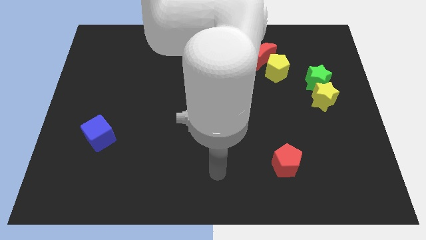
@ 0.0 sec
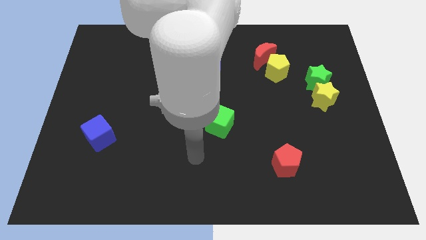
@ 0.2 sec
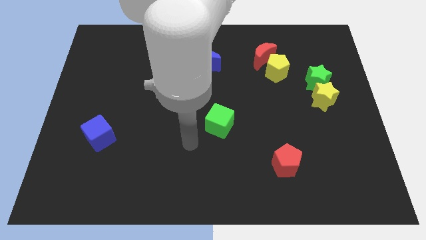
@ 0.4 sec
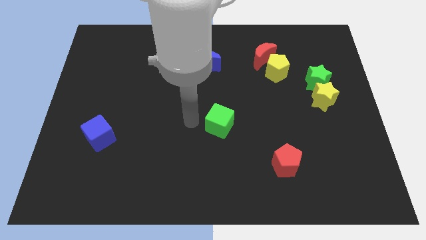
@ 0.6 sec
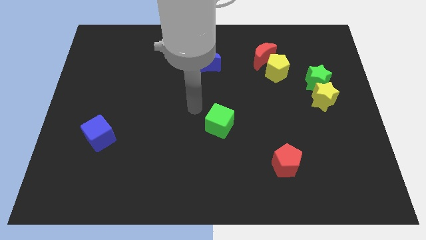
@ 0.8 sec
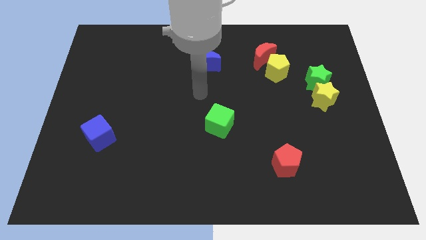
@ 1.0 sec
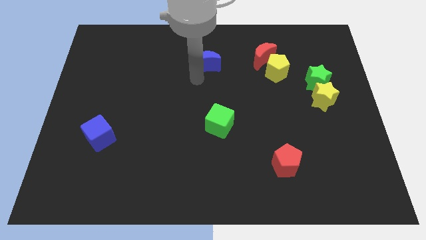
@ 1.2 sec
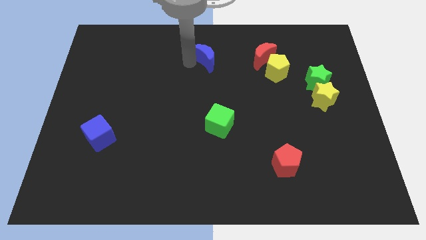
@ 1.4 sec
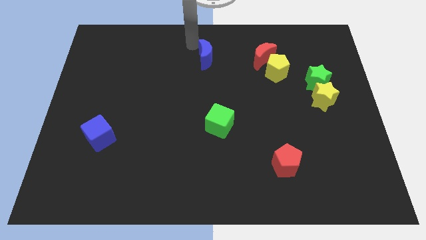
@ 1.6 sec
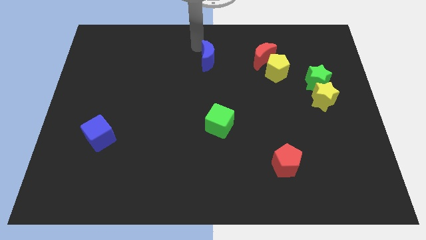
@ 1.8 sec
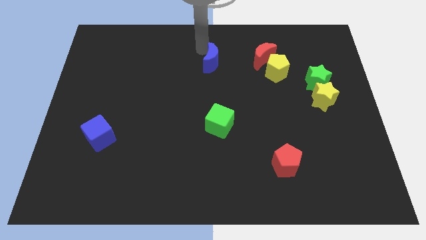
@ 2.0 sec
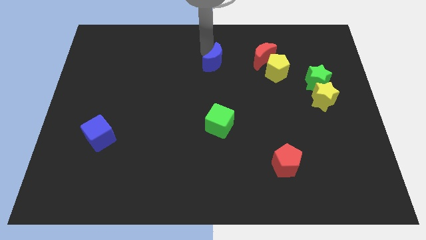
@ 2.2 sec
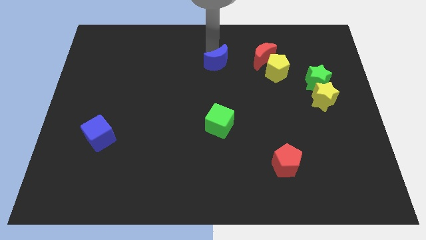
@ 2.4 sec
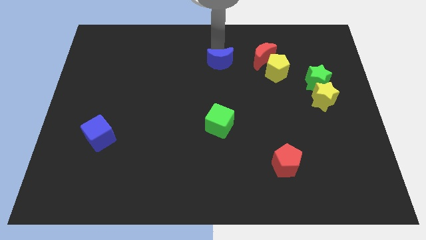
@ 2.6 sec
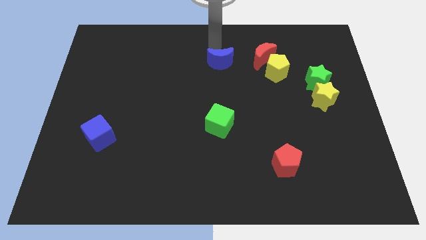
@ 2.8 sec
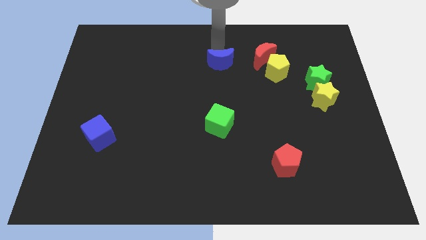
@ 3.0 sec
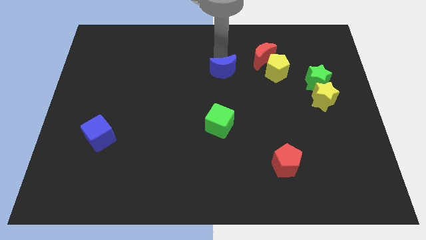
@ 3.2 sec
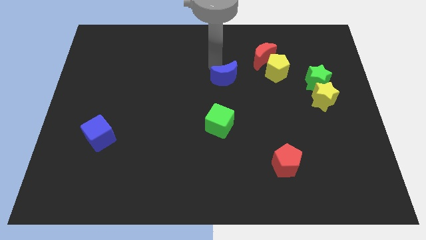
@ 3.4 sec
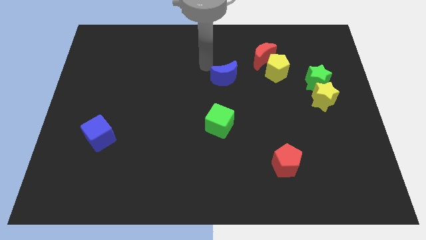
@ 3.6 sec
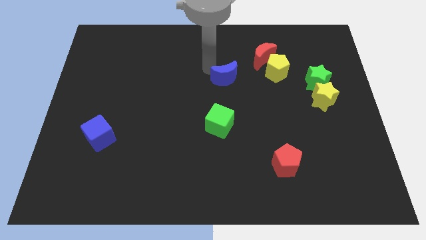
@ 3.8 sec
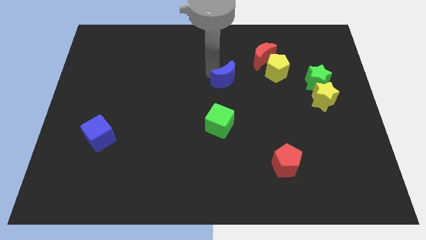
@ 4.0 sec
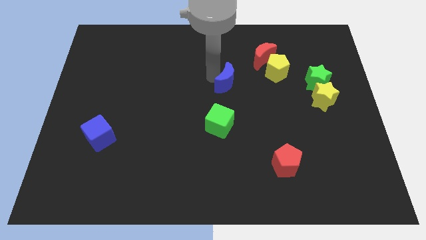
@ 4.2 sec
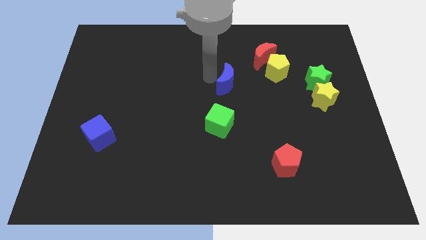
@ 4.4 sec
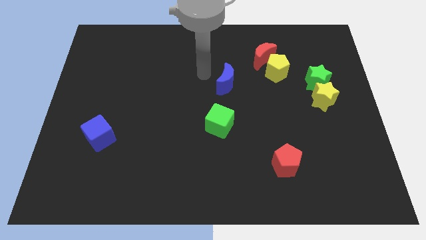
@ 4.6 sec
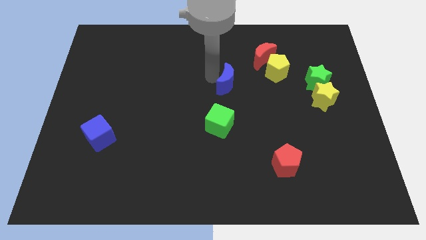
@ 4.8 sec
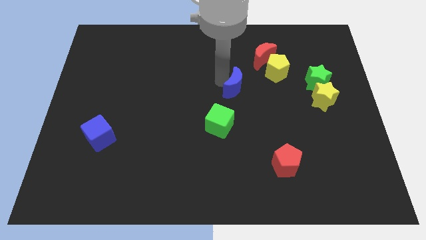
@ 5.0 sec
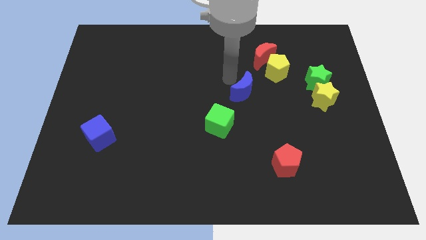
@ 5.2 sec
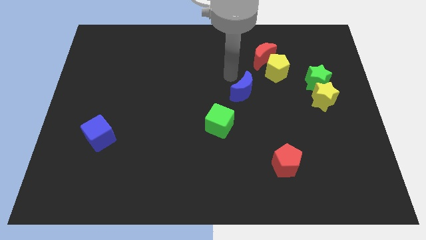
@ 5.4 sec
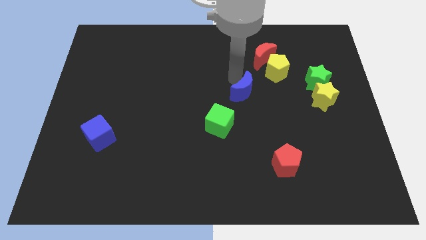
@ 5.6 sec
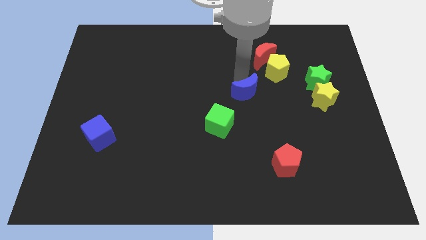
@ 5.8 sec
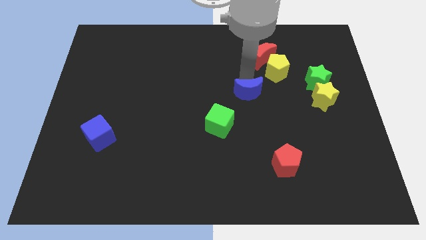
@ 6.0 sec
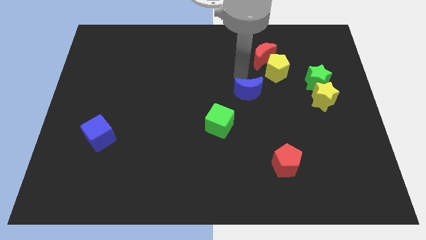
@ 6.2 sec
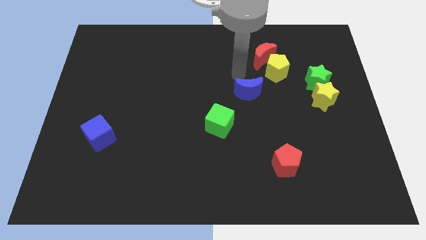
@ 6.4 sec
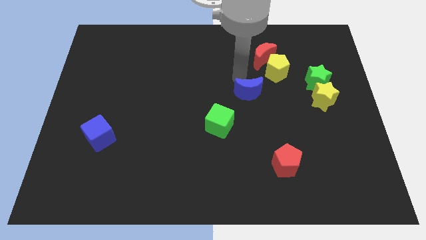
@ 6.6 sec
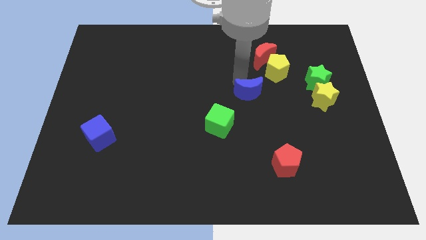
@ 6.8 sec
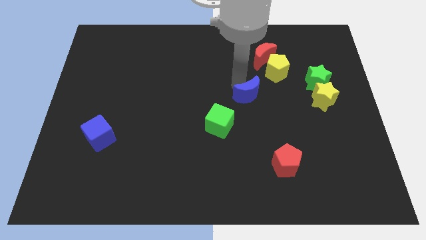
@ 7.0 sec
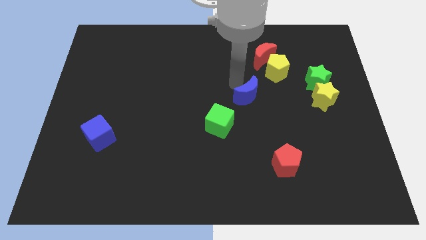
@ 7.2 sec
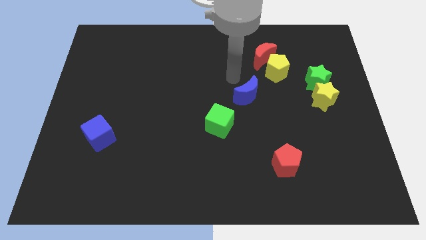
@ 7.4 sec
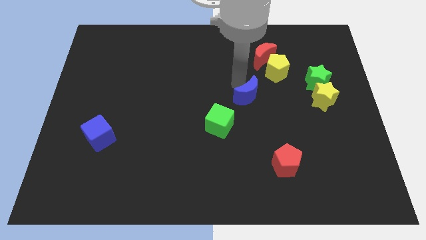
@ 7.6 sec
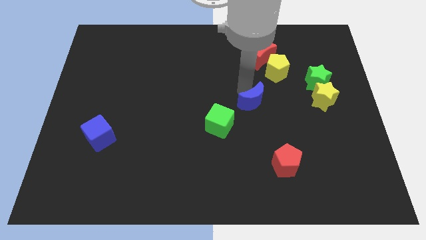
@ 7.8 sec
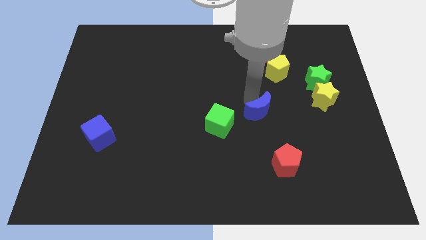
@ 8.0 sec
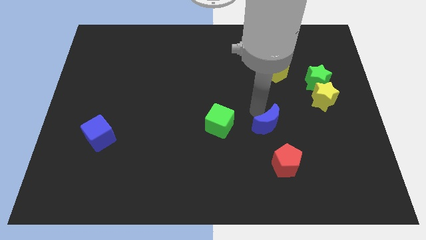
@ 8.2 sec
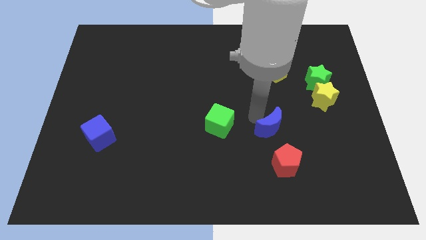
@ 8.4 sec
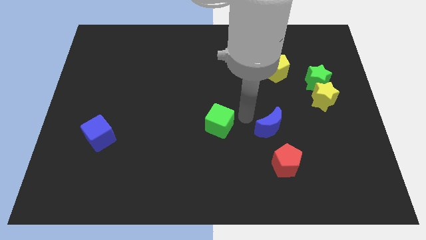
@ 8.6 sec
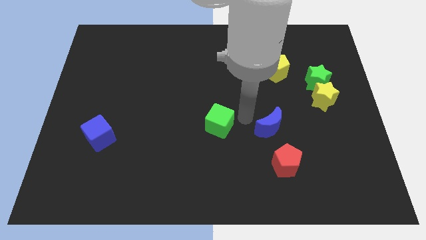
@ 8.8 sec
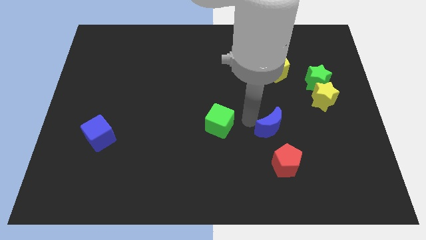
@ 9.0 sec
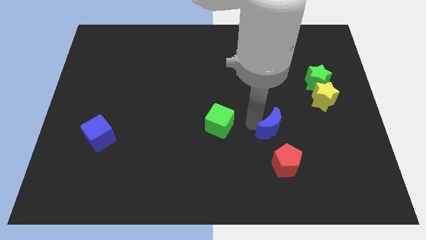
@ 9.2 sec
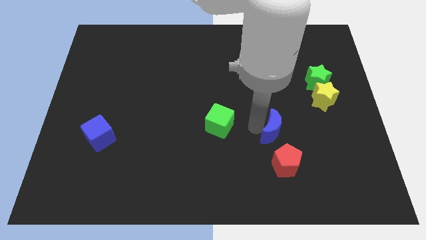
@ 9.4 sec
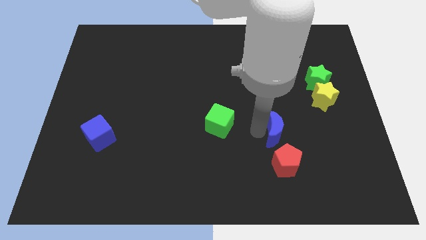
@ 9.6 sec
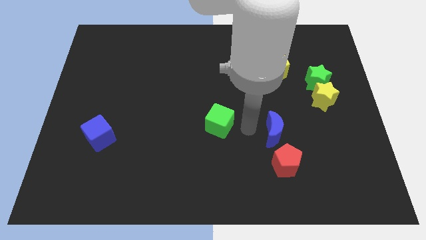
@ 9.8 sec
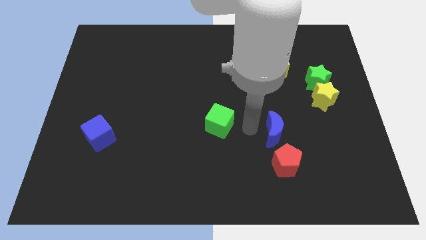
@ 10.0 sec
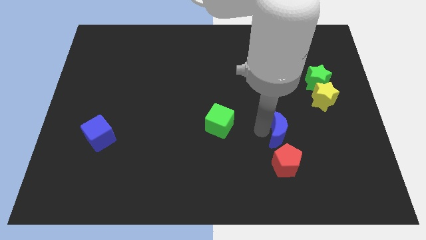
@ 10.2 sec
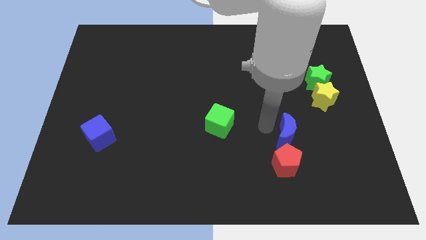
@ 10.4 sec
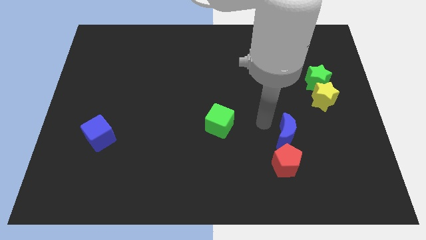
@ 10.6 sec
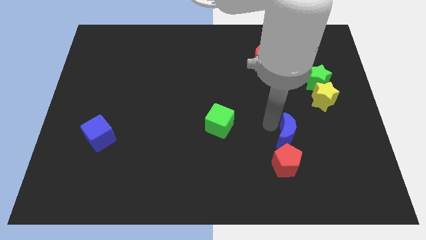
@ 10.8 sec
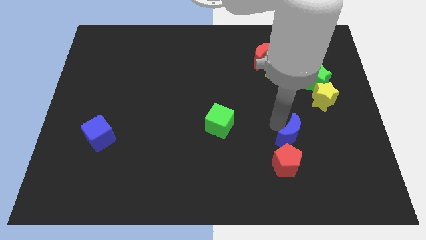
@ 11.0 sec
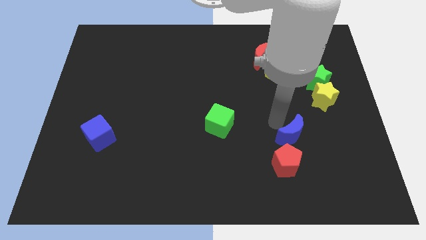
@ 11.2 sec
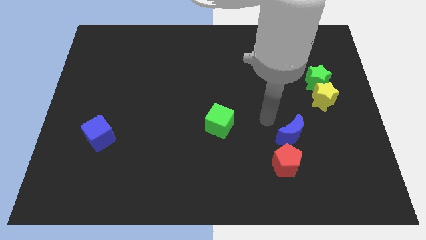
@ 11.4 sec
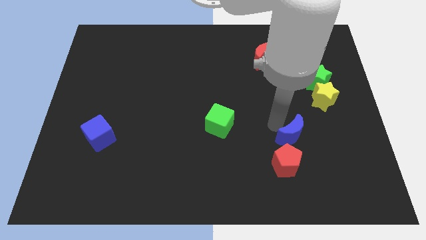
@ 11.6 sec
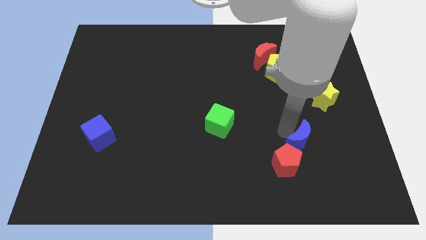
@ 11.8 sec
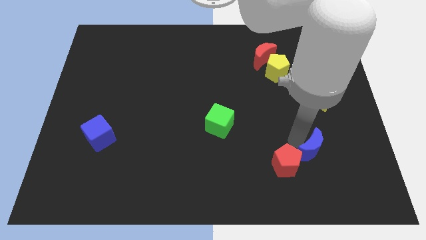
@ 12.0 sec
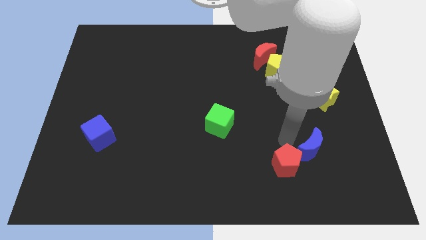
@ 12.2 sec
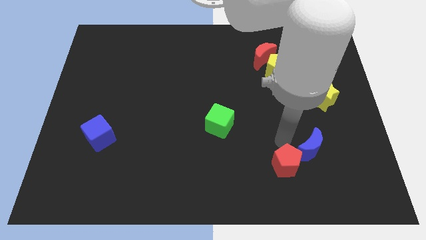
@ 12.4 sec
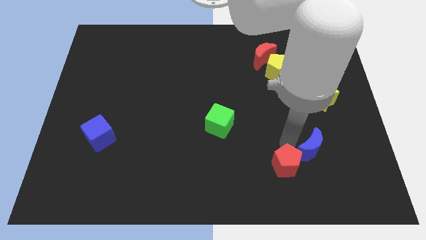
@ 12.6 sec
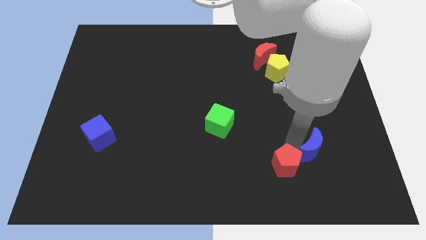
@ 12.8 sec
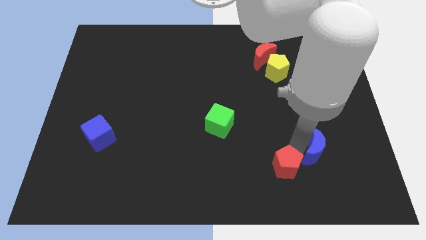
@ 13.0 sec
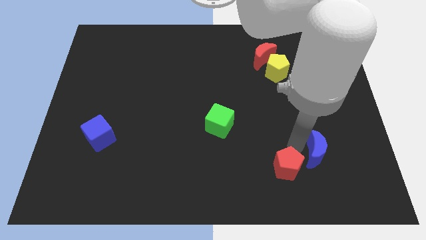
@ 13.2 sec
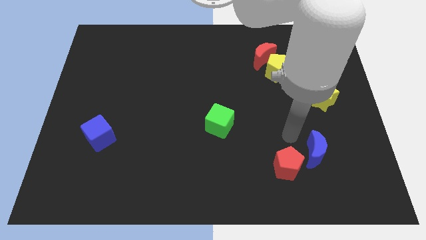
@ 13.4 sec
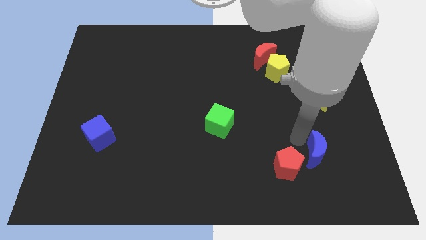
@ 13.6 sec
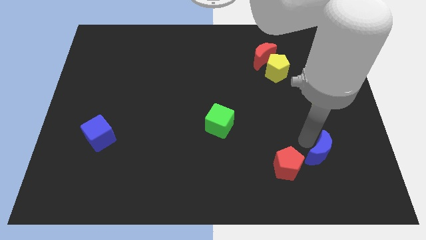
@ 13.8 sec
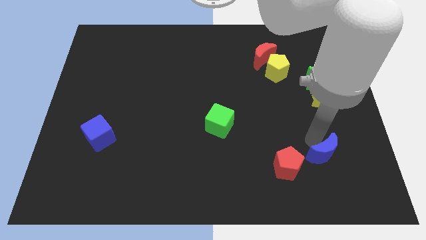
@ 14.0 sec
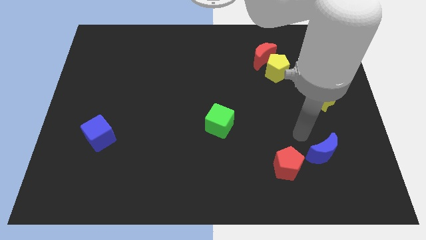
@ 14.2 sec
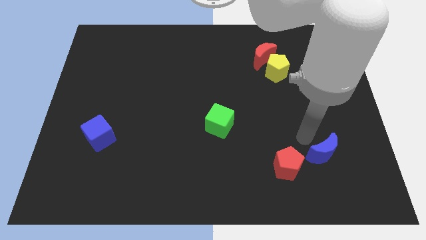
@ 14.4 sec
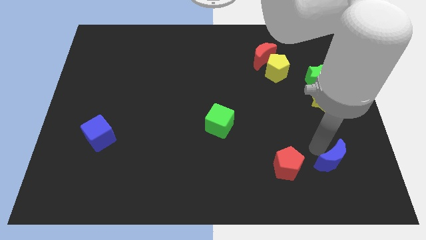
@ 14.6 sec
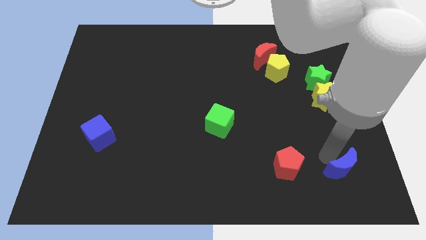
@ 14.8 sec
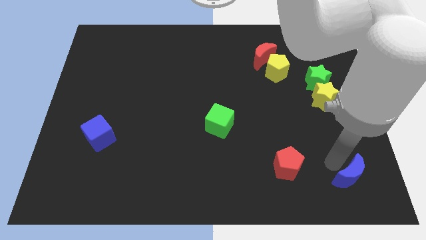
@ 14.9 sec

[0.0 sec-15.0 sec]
push the blue moon to the bottom right corner
